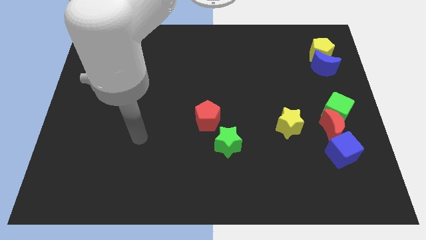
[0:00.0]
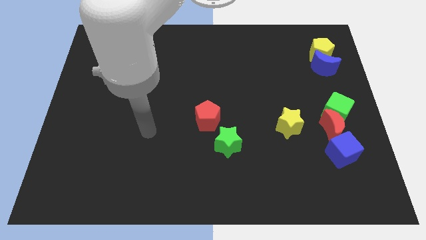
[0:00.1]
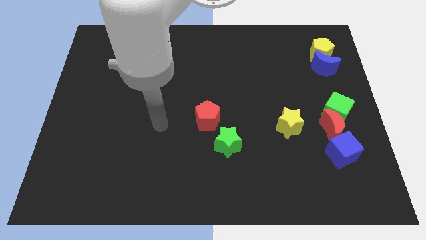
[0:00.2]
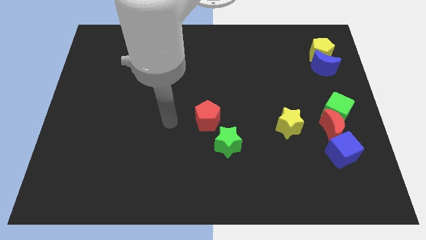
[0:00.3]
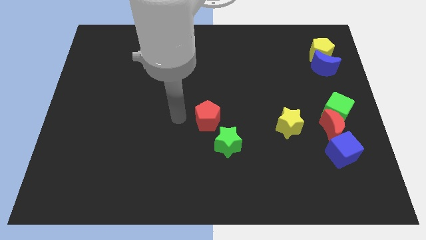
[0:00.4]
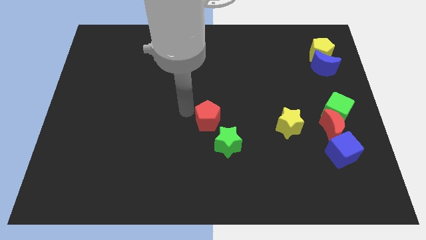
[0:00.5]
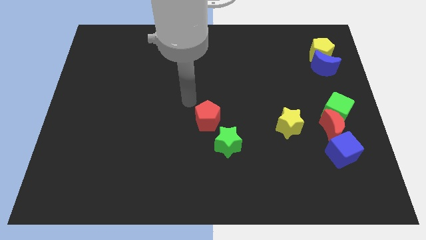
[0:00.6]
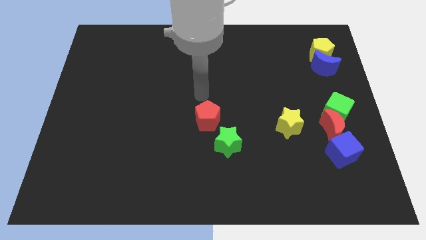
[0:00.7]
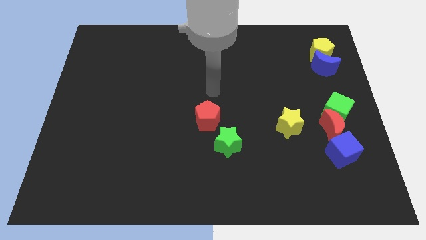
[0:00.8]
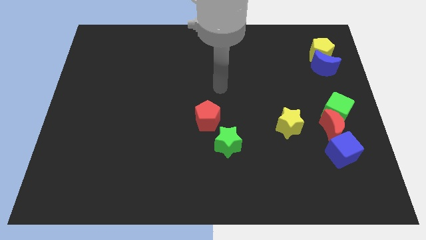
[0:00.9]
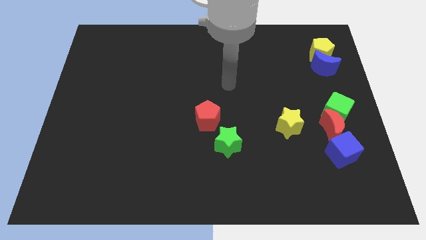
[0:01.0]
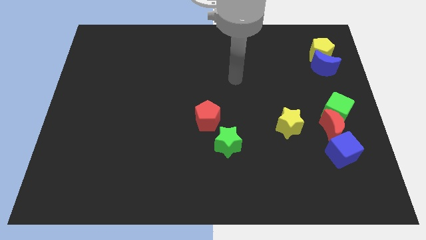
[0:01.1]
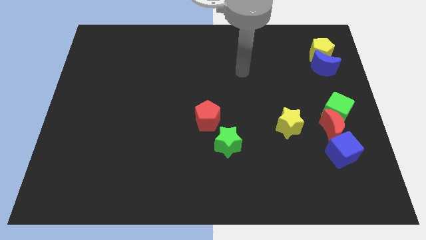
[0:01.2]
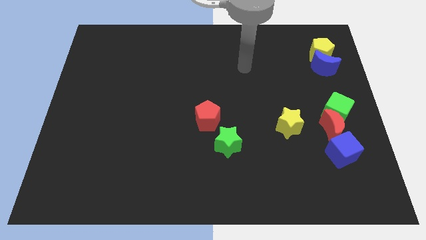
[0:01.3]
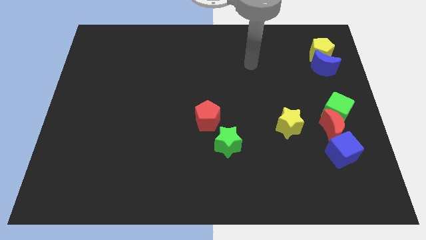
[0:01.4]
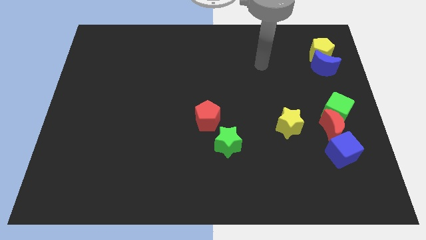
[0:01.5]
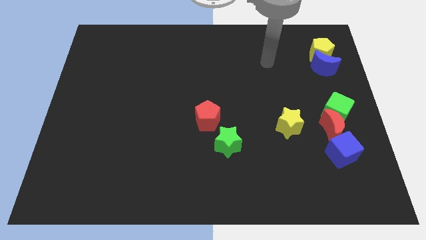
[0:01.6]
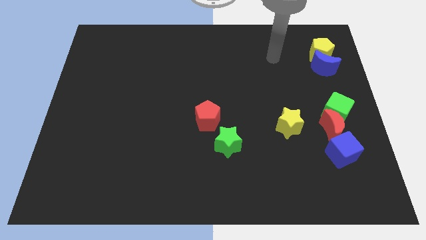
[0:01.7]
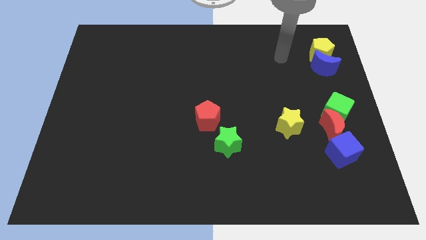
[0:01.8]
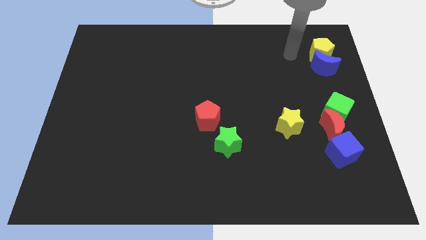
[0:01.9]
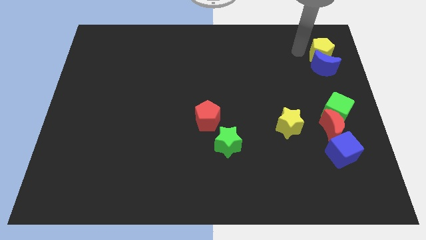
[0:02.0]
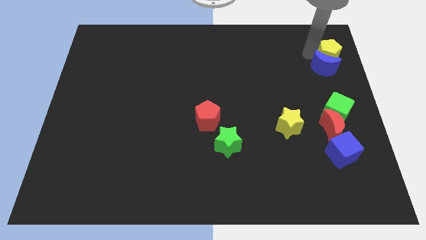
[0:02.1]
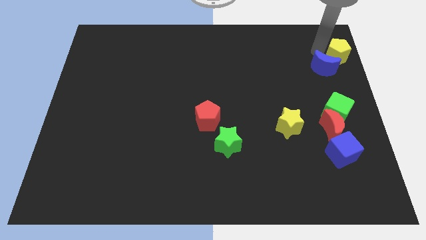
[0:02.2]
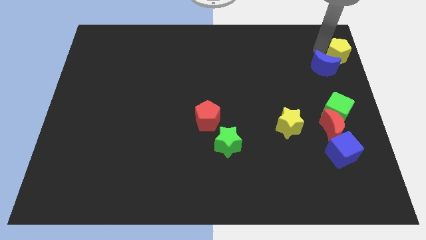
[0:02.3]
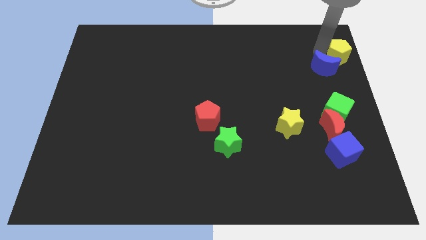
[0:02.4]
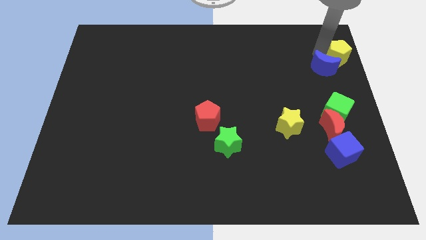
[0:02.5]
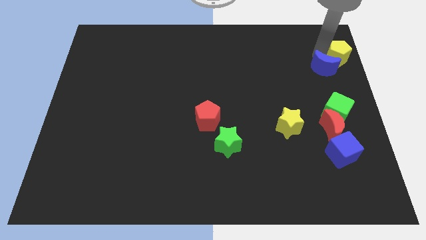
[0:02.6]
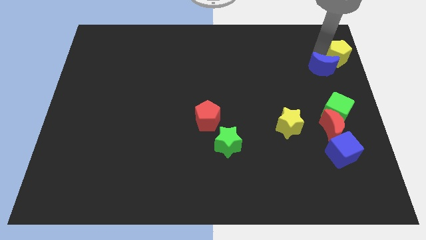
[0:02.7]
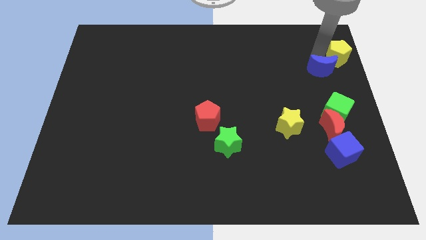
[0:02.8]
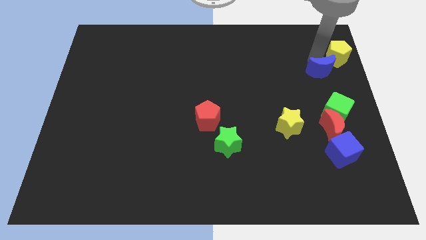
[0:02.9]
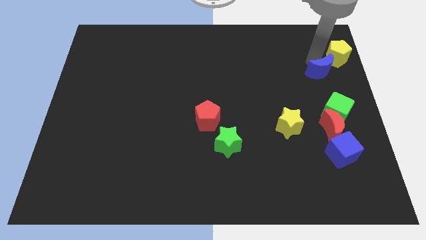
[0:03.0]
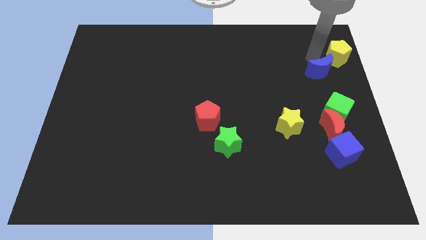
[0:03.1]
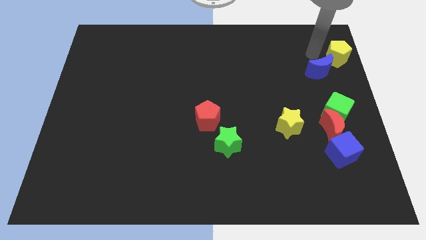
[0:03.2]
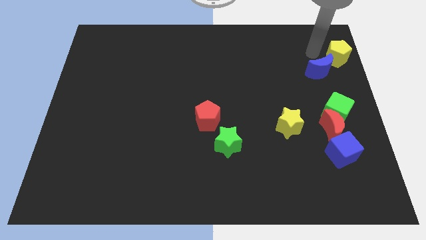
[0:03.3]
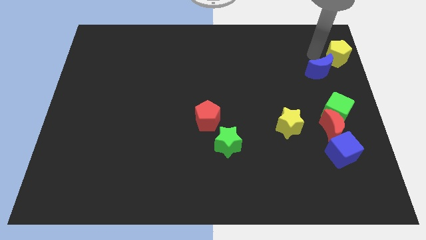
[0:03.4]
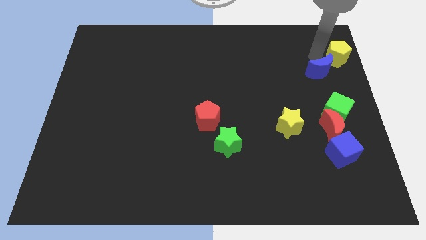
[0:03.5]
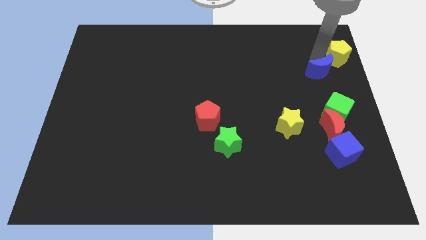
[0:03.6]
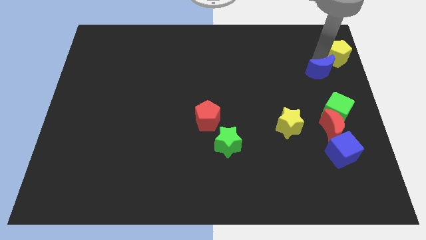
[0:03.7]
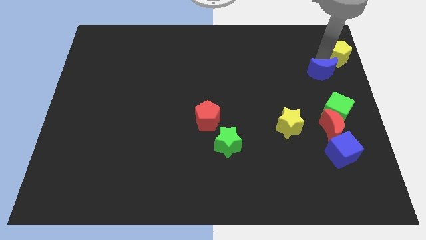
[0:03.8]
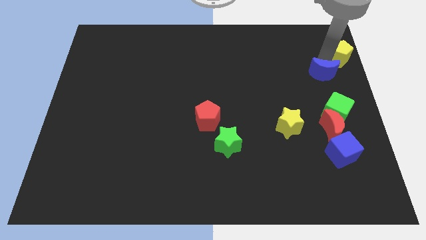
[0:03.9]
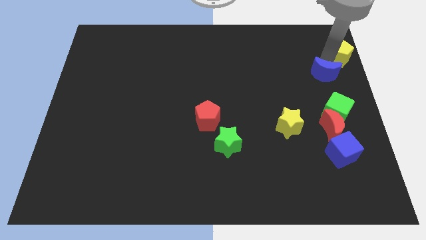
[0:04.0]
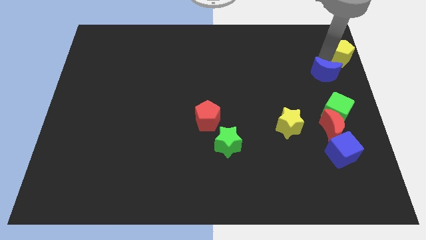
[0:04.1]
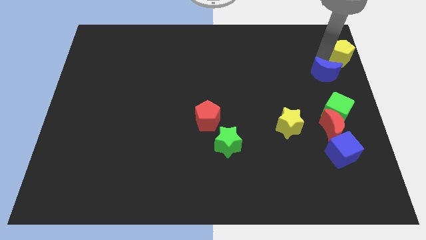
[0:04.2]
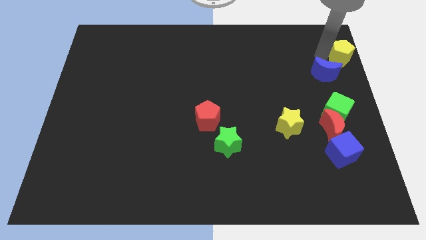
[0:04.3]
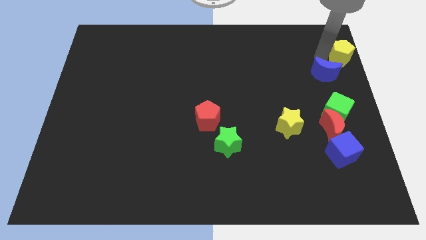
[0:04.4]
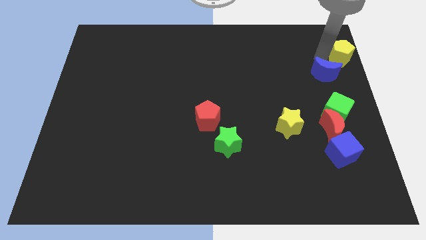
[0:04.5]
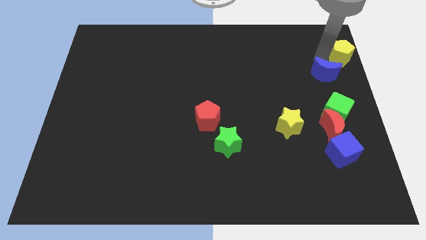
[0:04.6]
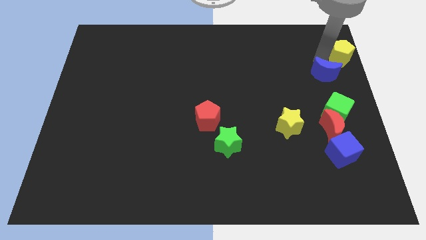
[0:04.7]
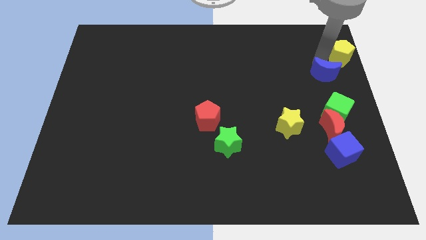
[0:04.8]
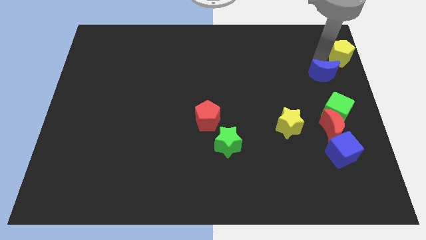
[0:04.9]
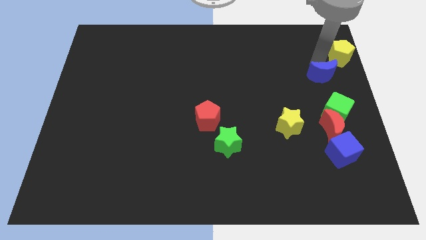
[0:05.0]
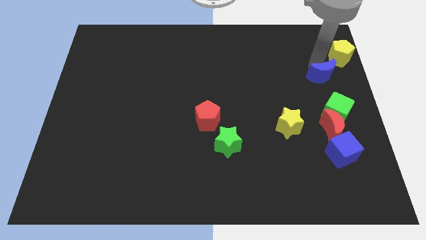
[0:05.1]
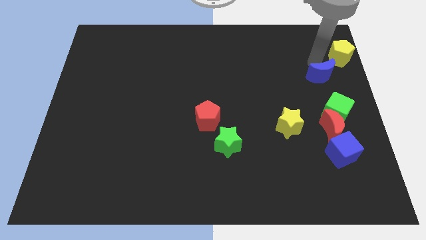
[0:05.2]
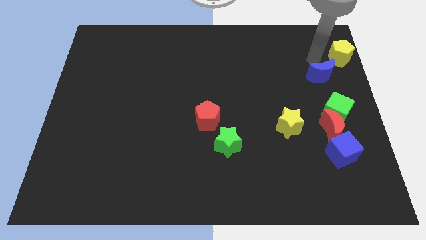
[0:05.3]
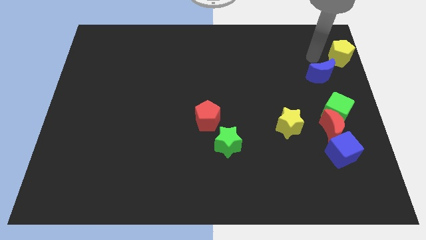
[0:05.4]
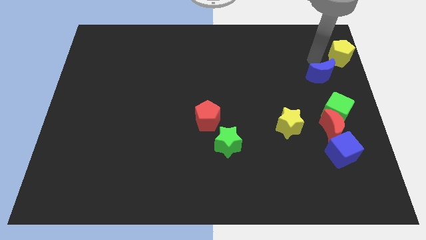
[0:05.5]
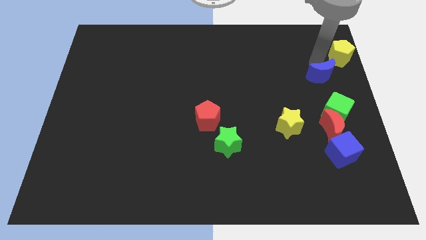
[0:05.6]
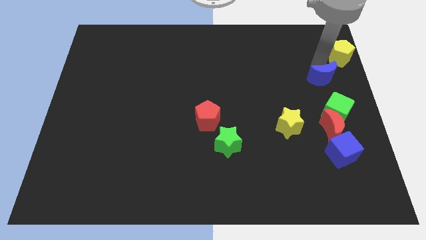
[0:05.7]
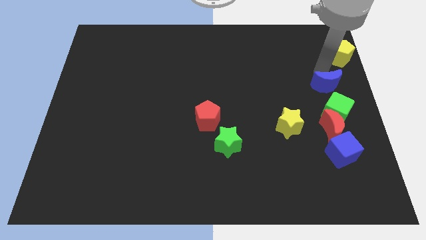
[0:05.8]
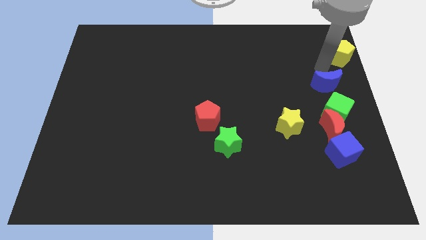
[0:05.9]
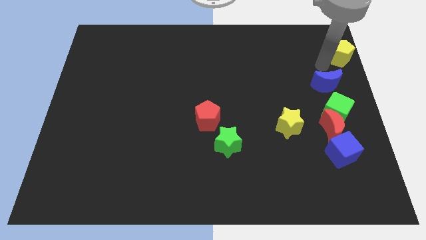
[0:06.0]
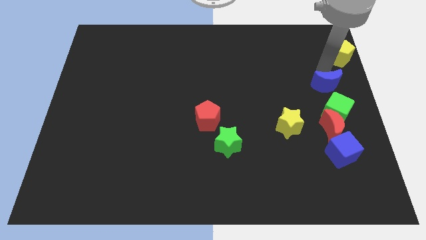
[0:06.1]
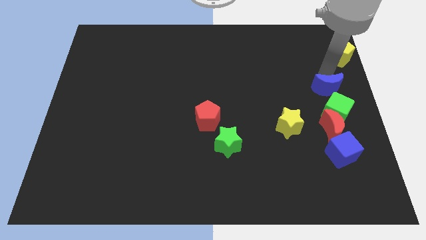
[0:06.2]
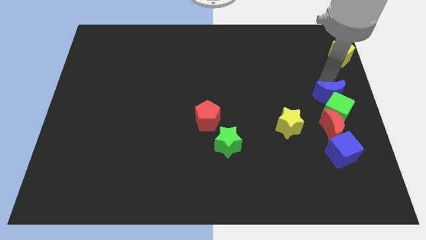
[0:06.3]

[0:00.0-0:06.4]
move the blue moon to the top side of the blue cube

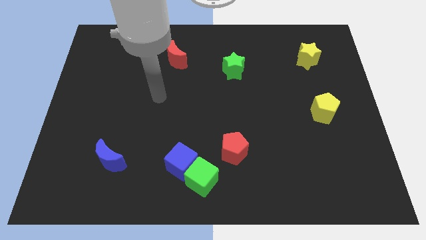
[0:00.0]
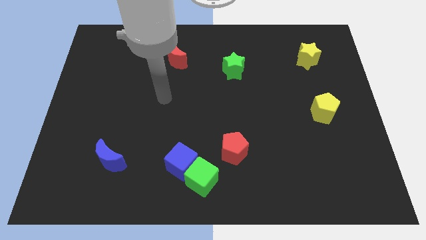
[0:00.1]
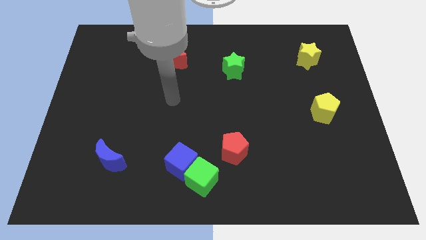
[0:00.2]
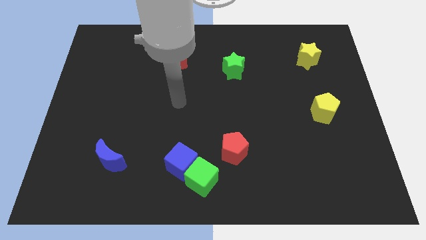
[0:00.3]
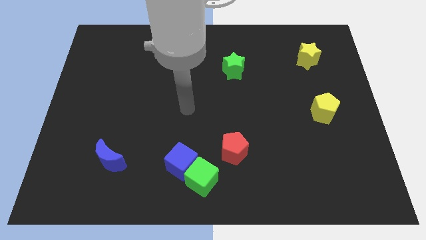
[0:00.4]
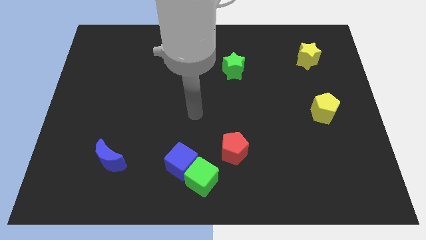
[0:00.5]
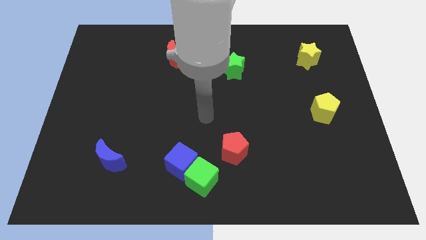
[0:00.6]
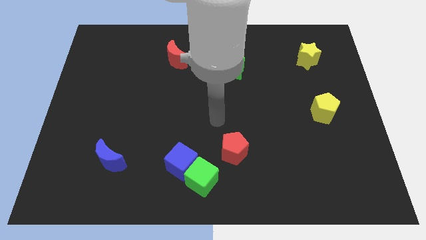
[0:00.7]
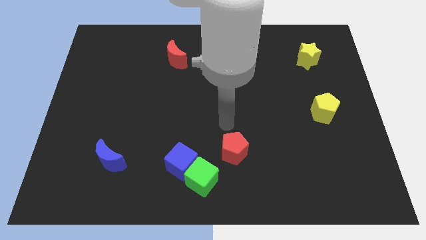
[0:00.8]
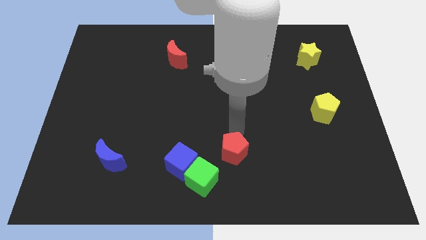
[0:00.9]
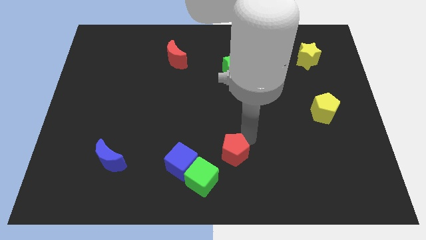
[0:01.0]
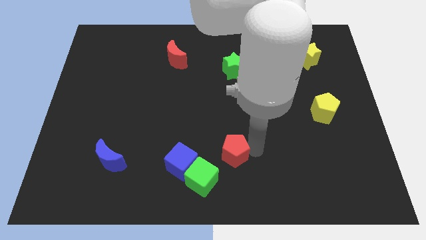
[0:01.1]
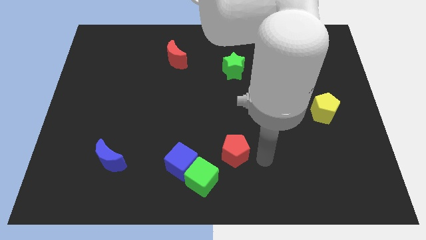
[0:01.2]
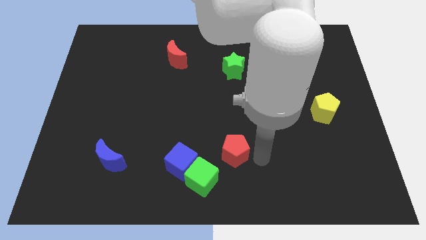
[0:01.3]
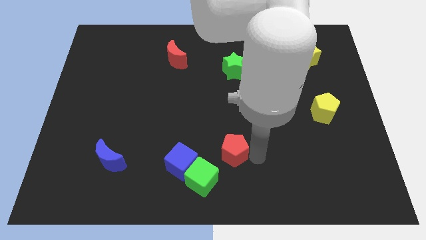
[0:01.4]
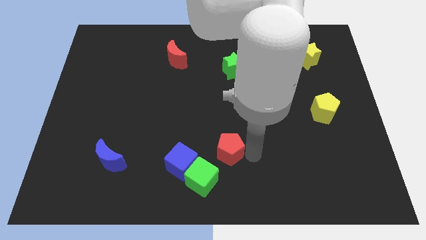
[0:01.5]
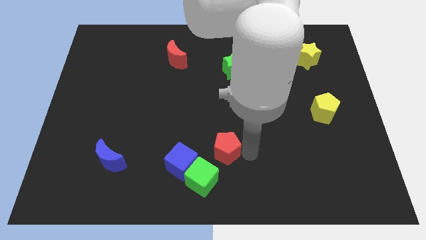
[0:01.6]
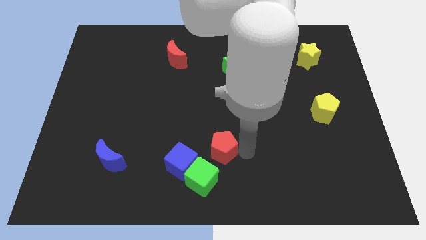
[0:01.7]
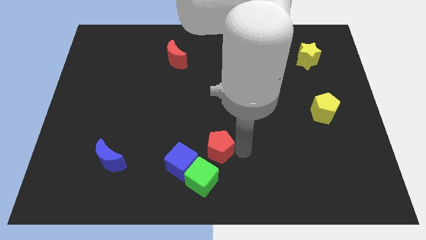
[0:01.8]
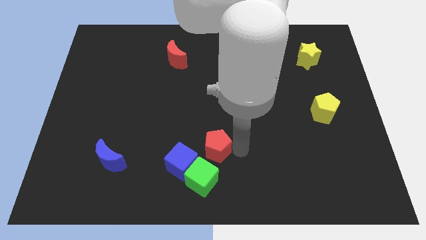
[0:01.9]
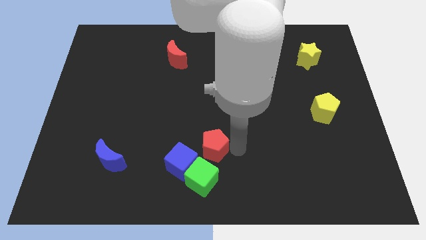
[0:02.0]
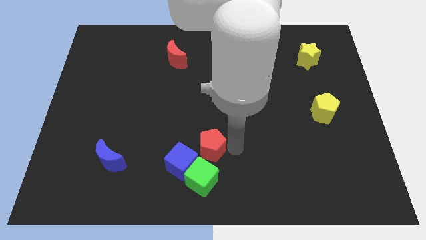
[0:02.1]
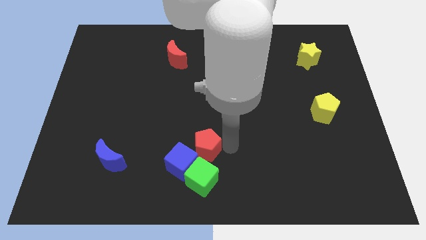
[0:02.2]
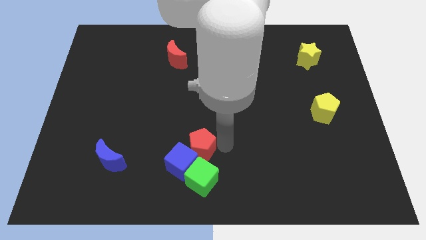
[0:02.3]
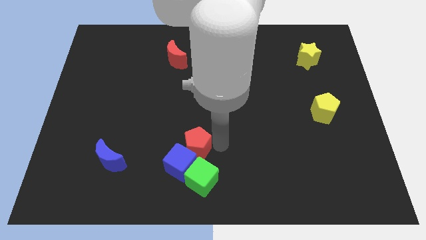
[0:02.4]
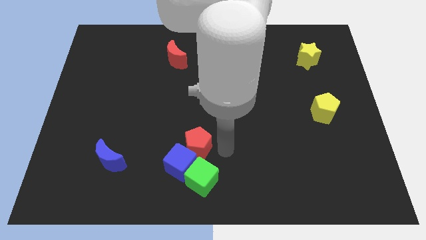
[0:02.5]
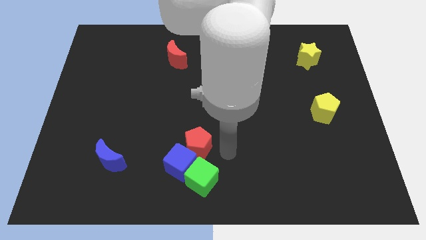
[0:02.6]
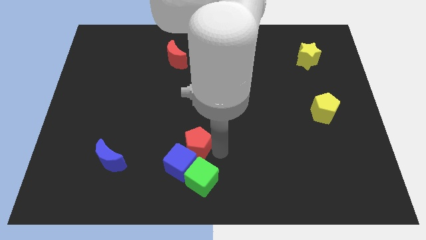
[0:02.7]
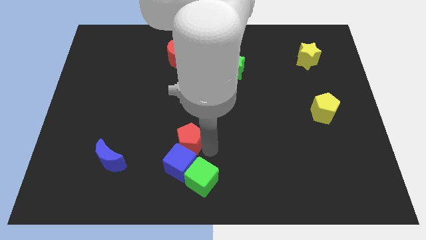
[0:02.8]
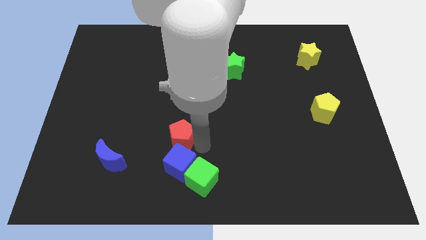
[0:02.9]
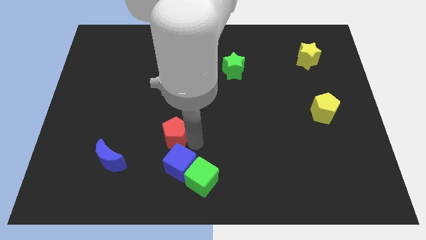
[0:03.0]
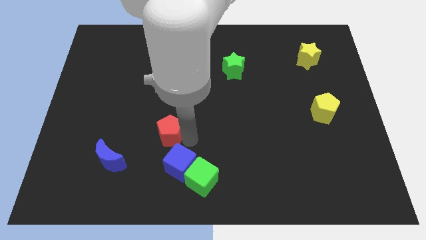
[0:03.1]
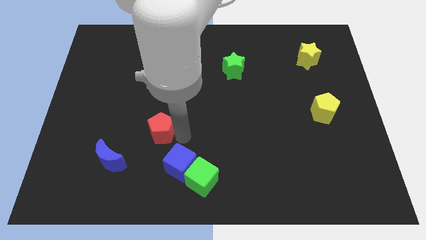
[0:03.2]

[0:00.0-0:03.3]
put the red pentagon to the top right of the blue moon
